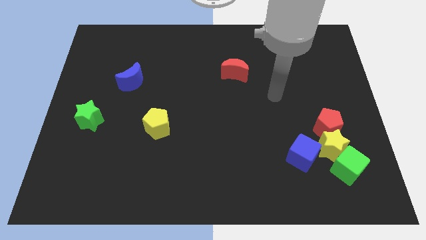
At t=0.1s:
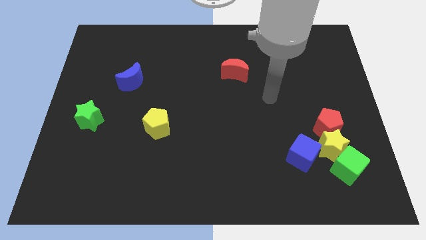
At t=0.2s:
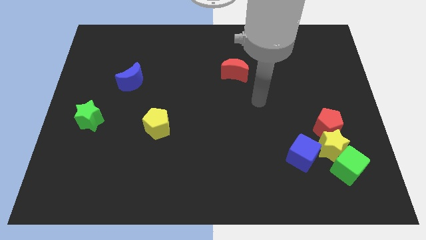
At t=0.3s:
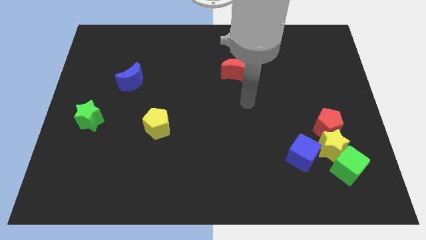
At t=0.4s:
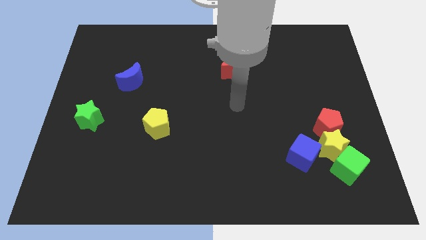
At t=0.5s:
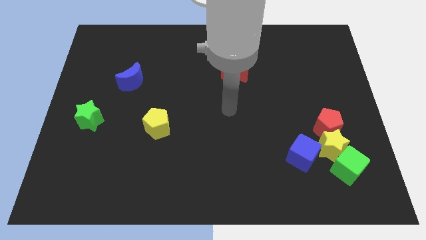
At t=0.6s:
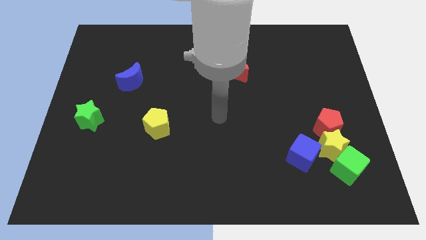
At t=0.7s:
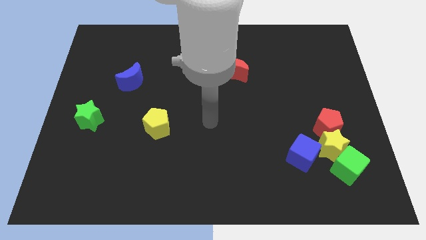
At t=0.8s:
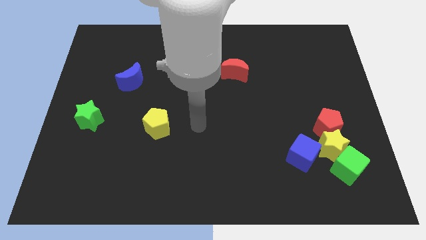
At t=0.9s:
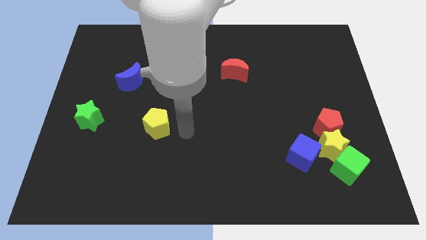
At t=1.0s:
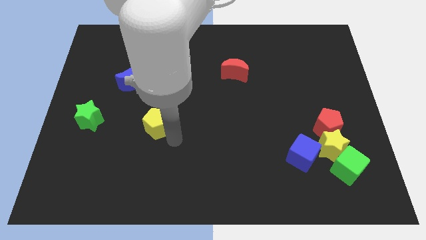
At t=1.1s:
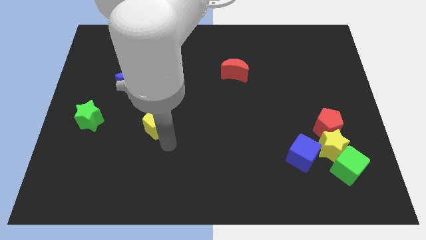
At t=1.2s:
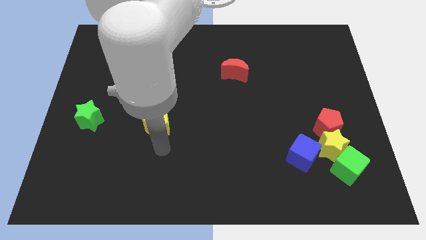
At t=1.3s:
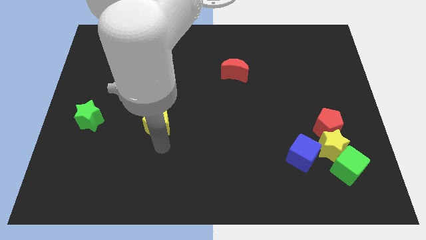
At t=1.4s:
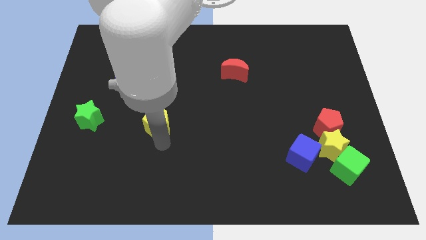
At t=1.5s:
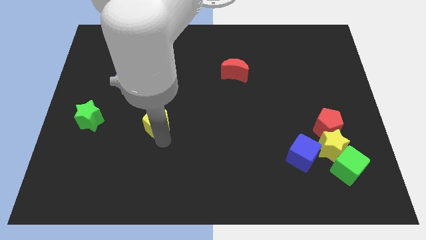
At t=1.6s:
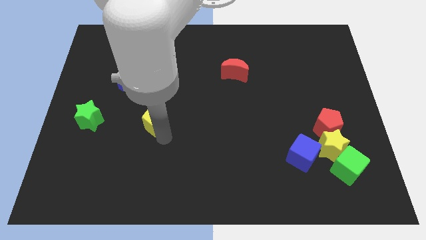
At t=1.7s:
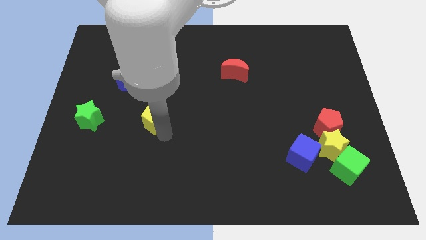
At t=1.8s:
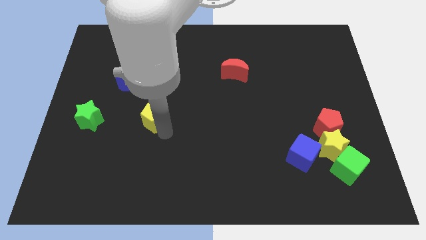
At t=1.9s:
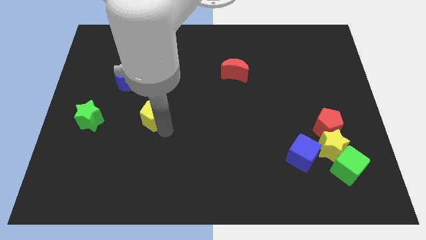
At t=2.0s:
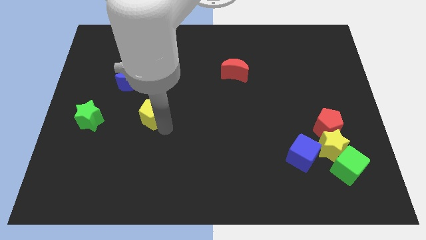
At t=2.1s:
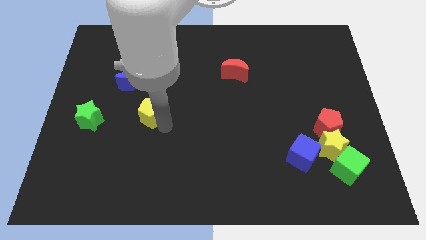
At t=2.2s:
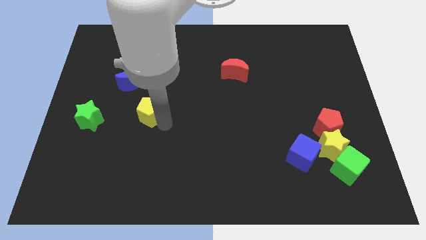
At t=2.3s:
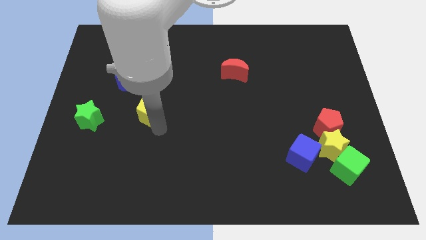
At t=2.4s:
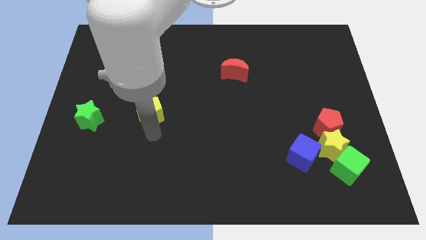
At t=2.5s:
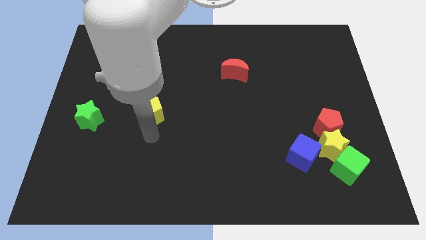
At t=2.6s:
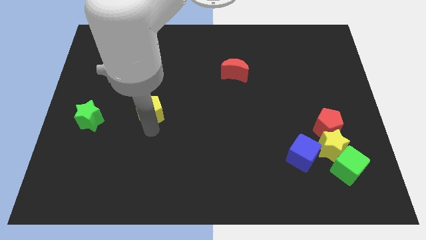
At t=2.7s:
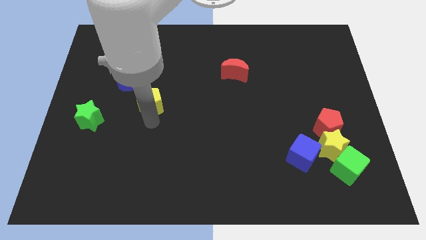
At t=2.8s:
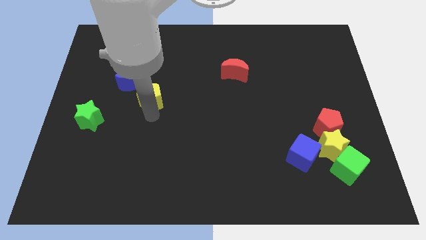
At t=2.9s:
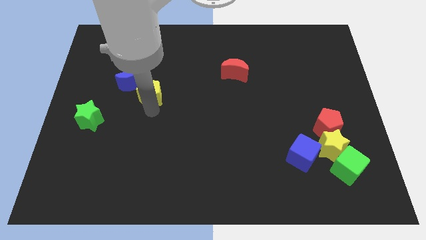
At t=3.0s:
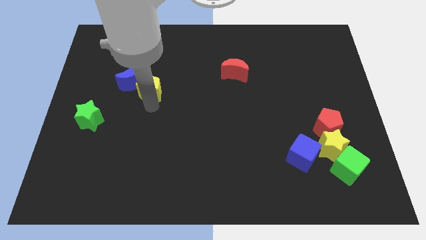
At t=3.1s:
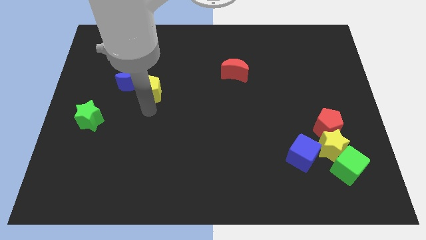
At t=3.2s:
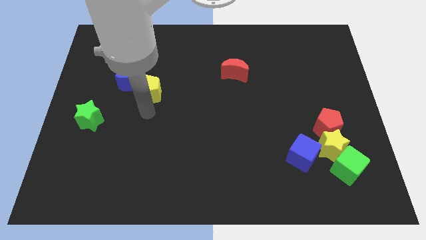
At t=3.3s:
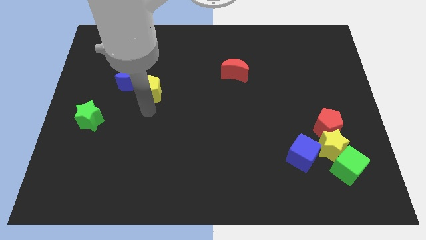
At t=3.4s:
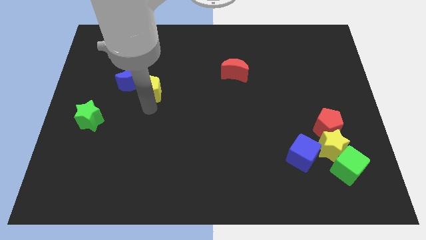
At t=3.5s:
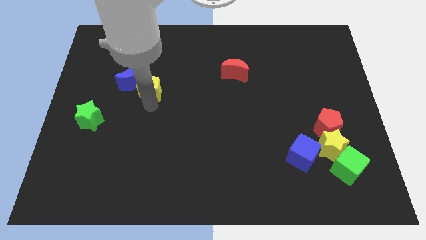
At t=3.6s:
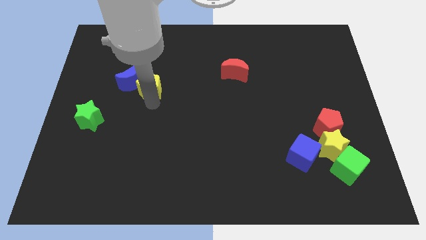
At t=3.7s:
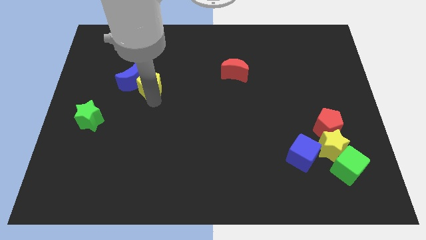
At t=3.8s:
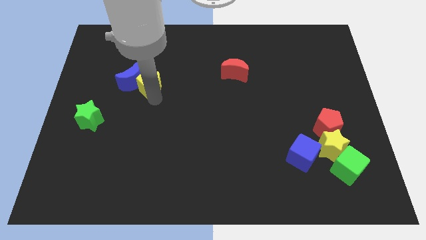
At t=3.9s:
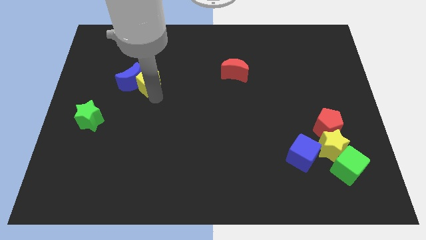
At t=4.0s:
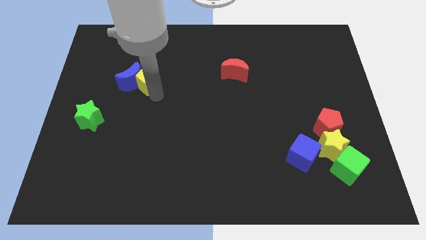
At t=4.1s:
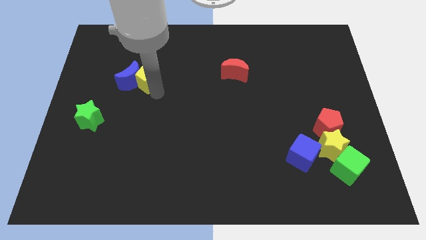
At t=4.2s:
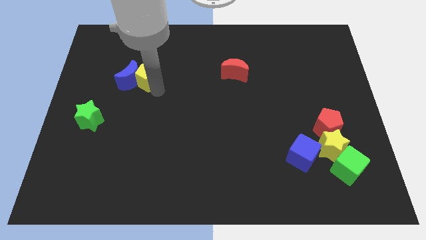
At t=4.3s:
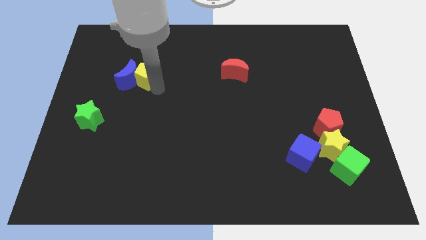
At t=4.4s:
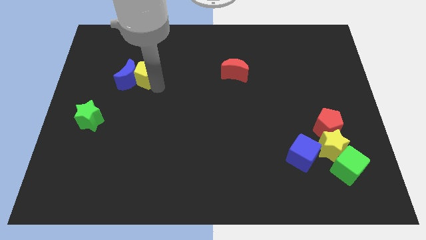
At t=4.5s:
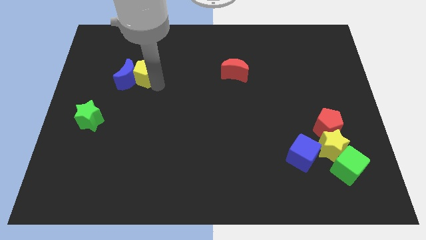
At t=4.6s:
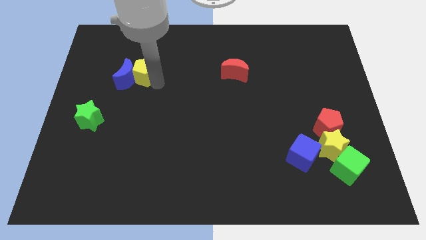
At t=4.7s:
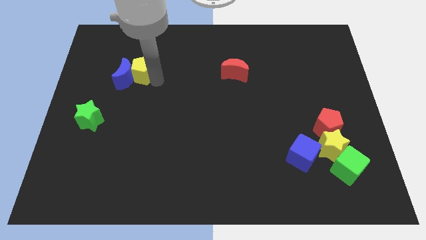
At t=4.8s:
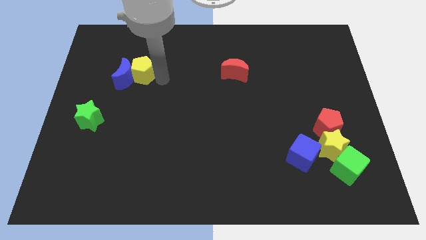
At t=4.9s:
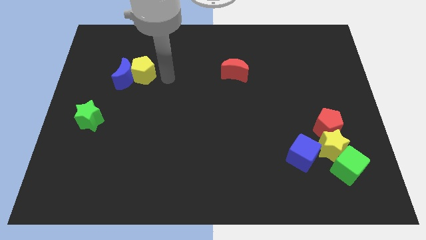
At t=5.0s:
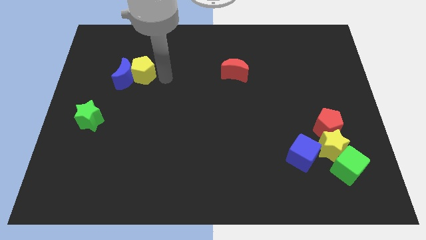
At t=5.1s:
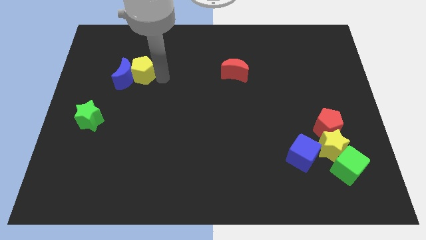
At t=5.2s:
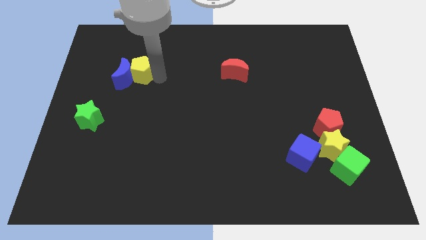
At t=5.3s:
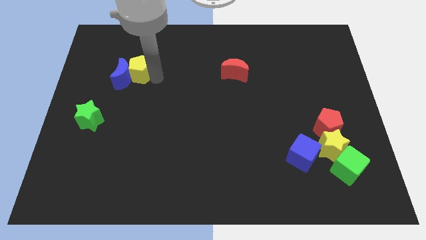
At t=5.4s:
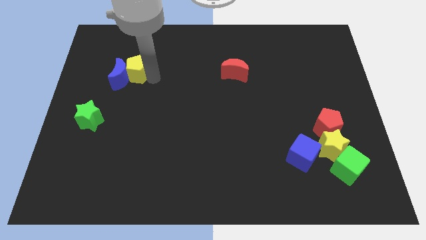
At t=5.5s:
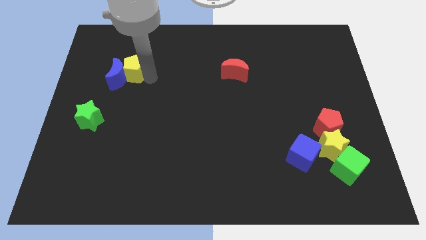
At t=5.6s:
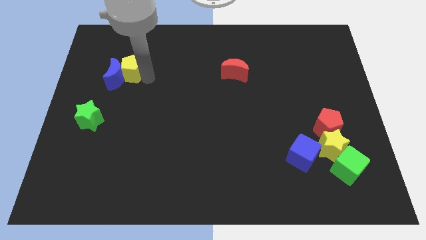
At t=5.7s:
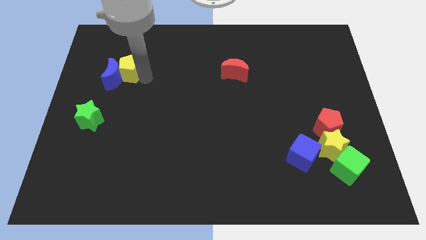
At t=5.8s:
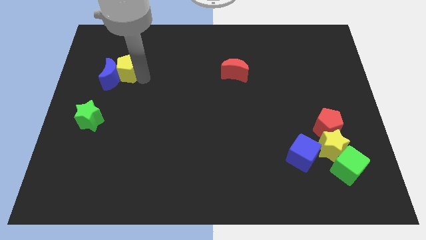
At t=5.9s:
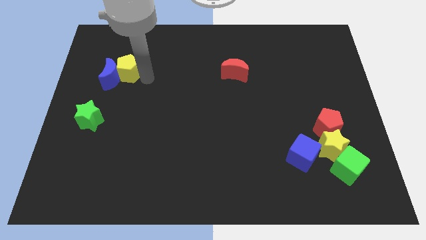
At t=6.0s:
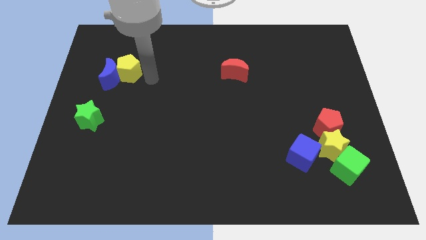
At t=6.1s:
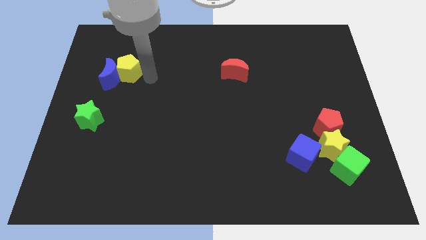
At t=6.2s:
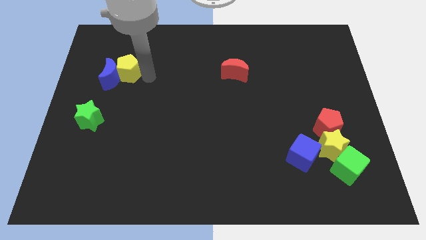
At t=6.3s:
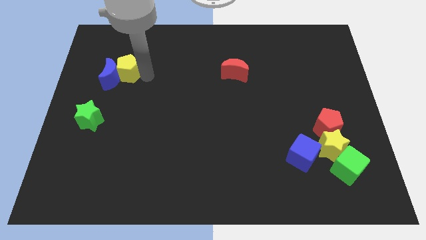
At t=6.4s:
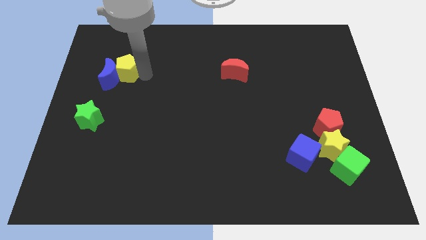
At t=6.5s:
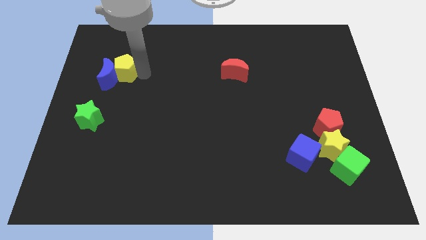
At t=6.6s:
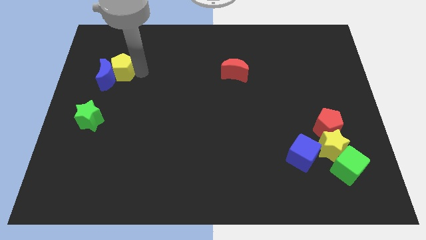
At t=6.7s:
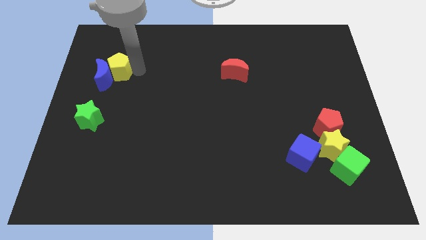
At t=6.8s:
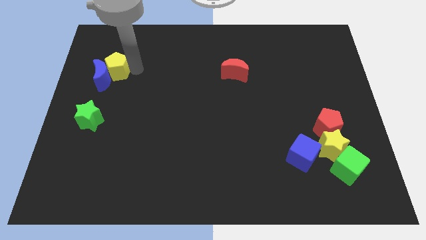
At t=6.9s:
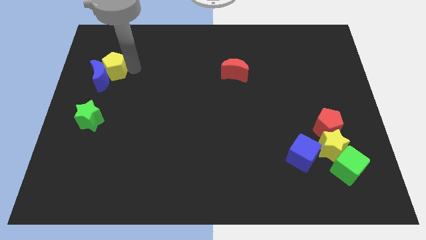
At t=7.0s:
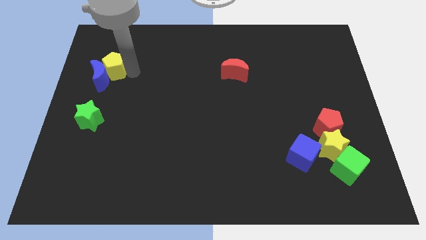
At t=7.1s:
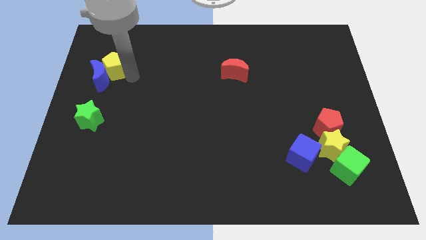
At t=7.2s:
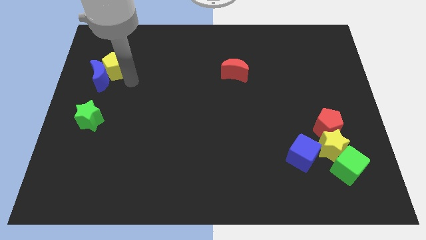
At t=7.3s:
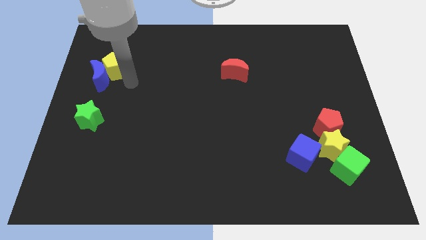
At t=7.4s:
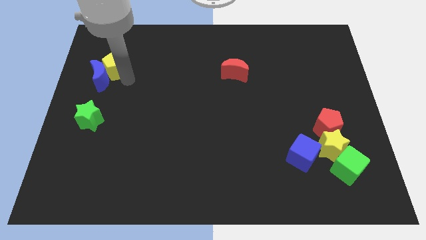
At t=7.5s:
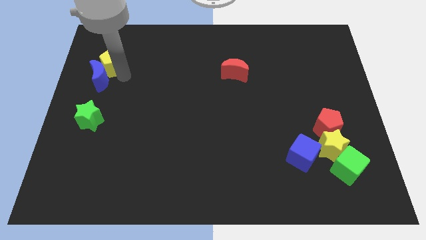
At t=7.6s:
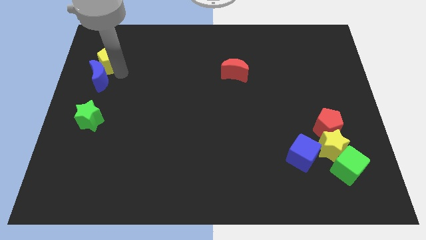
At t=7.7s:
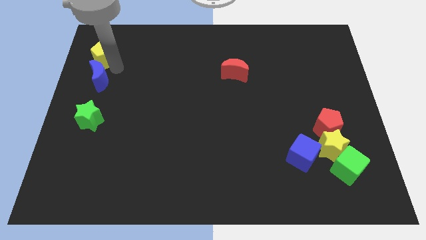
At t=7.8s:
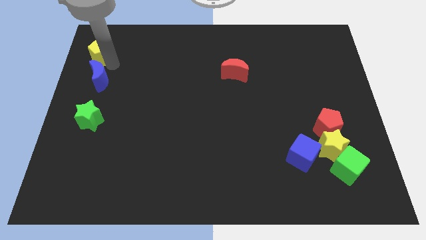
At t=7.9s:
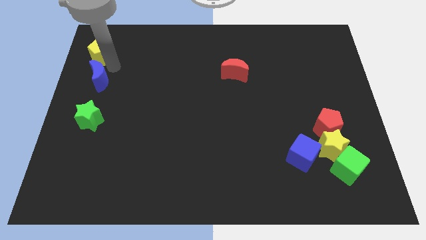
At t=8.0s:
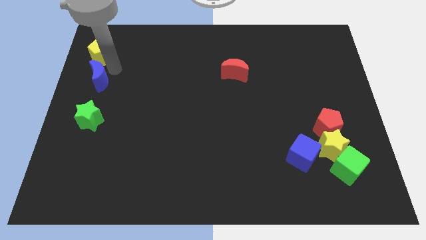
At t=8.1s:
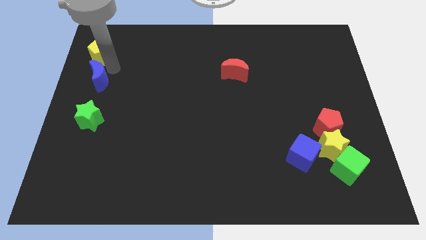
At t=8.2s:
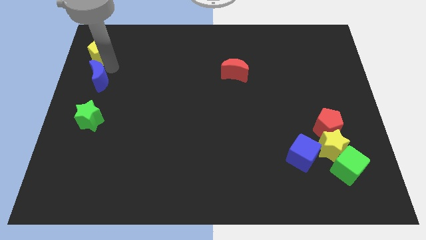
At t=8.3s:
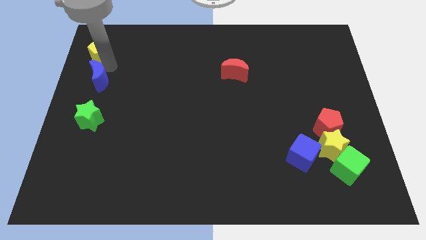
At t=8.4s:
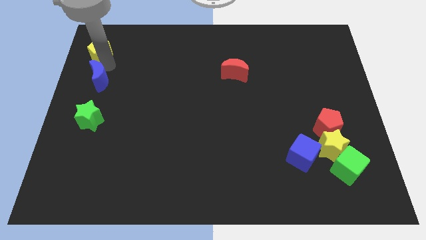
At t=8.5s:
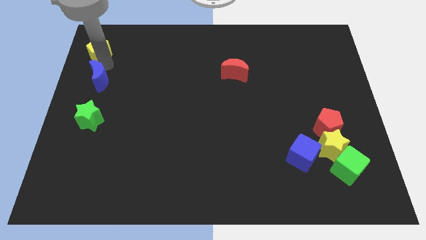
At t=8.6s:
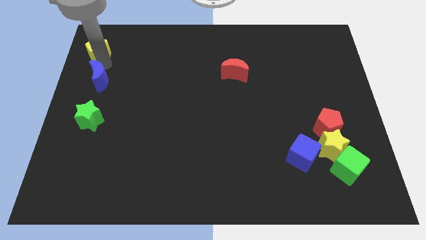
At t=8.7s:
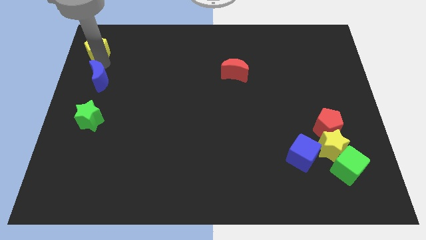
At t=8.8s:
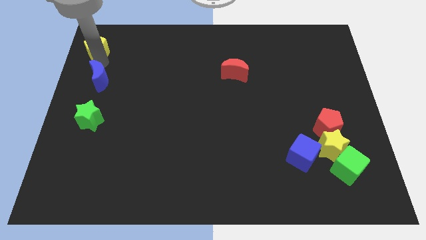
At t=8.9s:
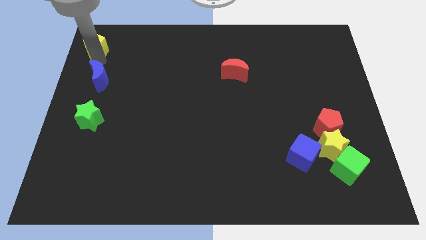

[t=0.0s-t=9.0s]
push the yellow pentagon to the top left corner
